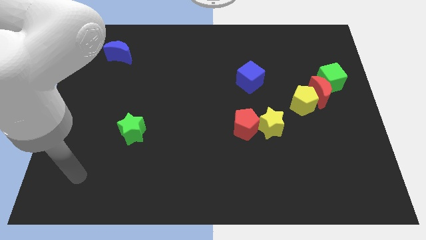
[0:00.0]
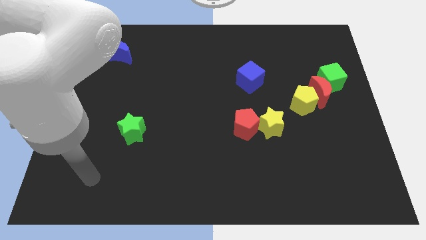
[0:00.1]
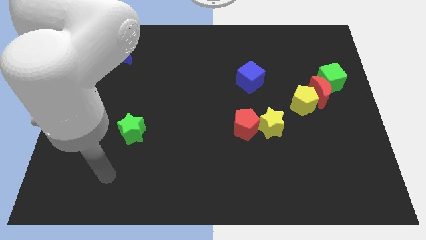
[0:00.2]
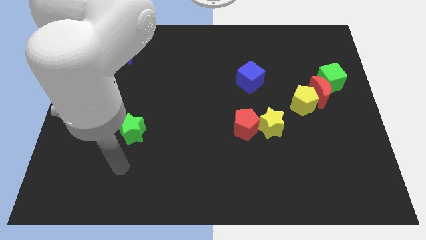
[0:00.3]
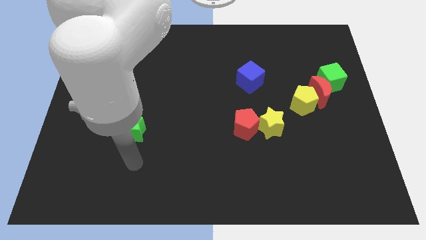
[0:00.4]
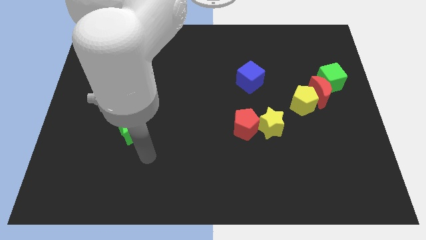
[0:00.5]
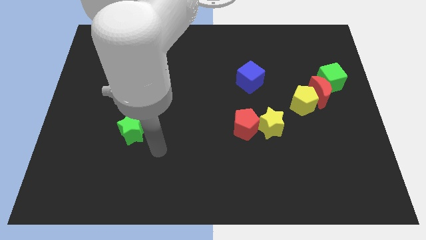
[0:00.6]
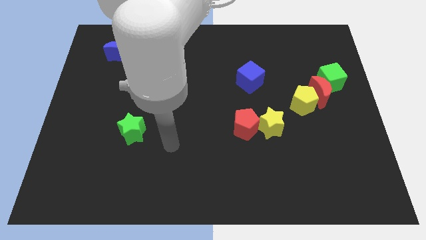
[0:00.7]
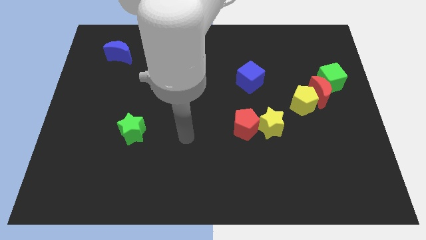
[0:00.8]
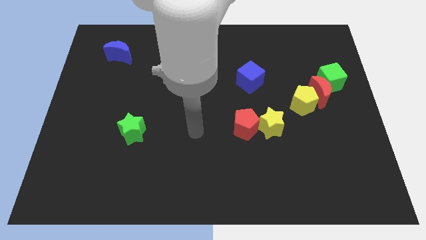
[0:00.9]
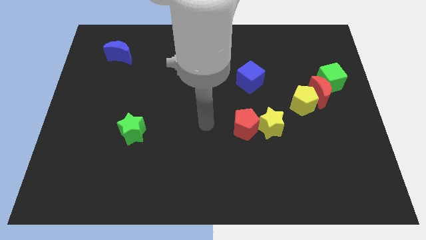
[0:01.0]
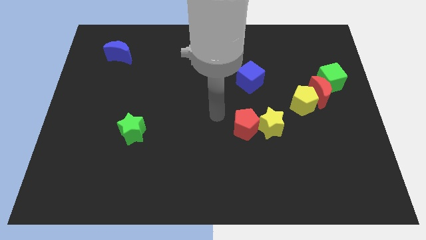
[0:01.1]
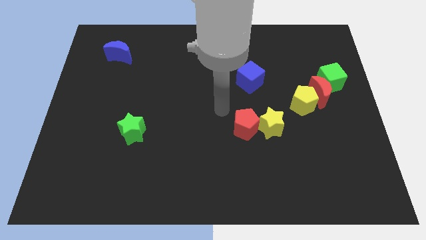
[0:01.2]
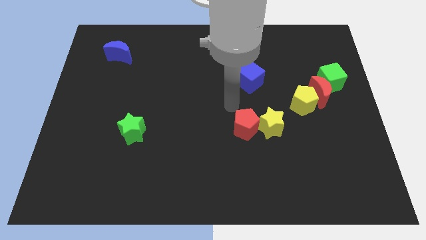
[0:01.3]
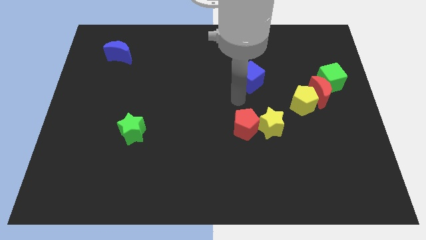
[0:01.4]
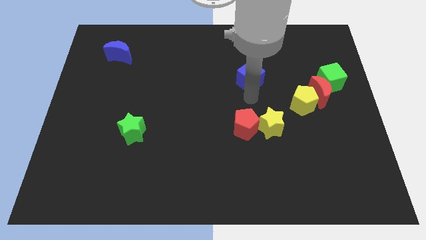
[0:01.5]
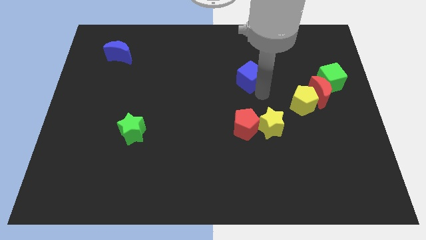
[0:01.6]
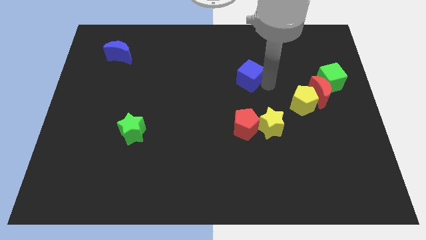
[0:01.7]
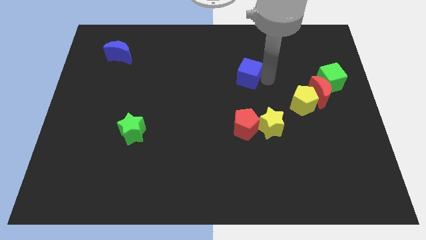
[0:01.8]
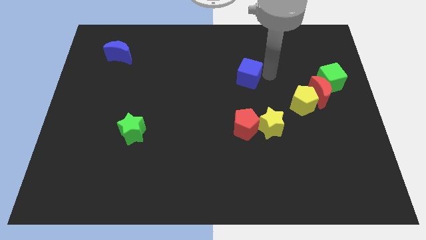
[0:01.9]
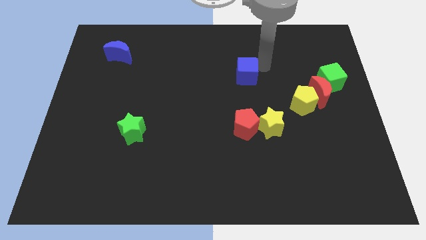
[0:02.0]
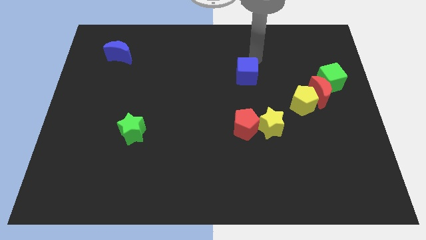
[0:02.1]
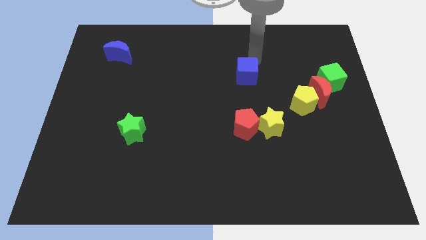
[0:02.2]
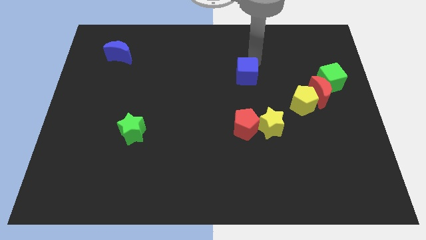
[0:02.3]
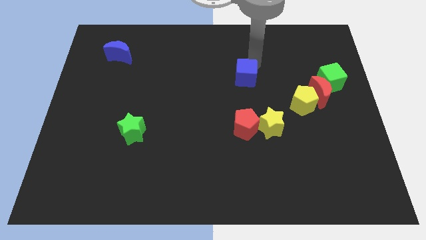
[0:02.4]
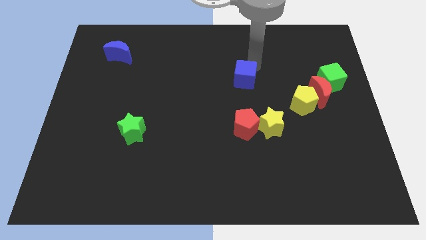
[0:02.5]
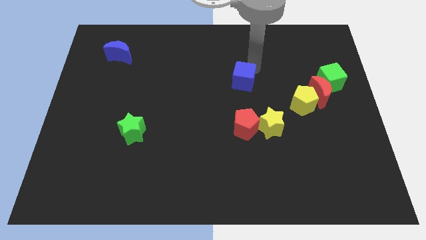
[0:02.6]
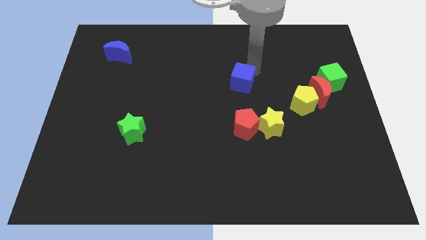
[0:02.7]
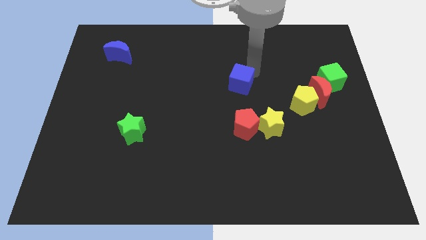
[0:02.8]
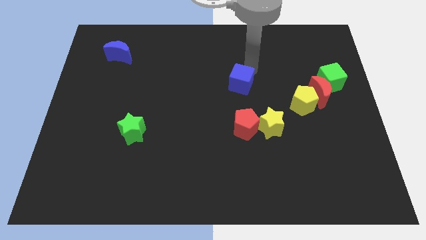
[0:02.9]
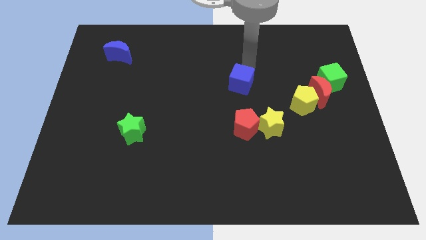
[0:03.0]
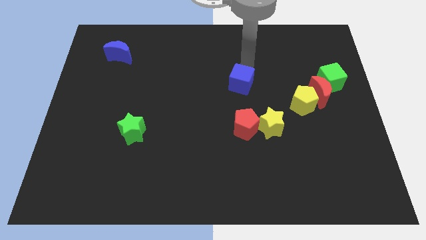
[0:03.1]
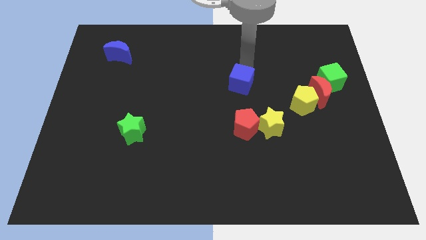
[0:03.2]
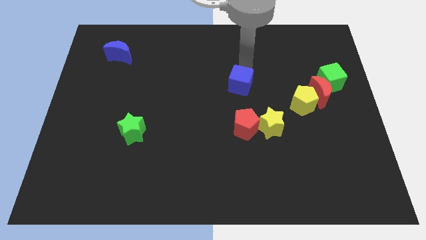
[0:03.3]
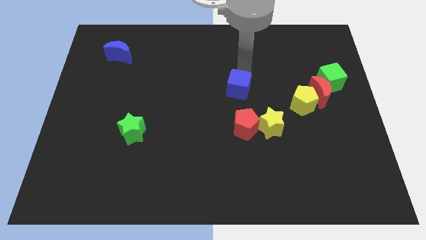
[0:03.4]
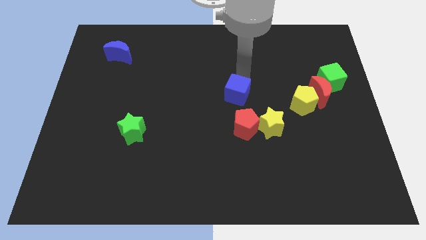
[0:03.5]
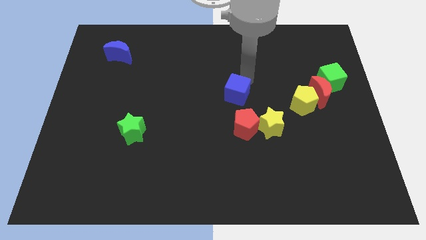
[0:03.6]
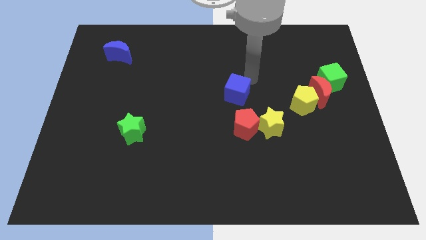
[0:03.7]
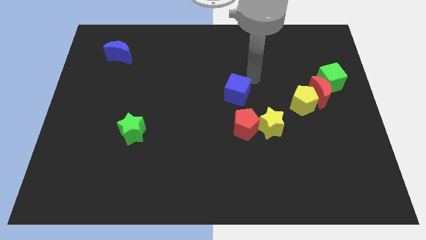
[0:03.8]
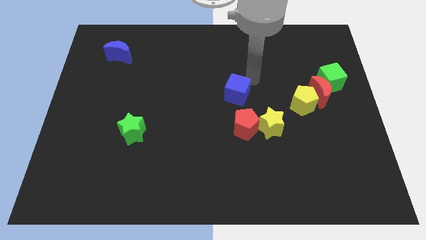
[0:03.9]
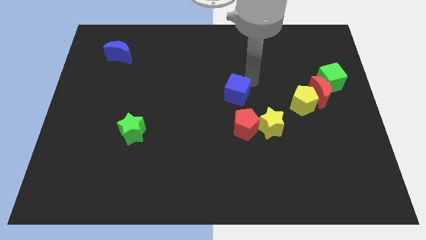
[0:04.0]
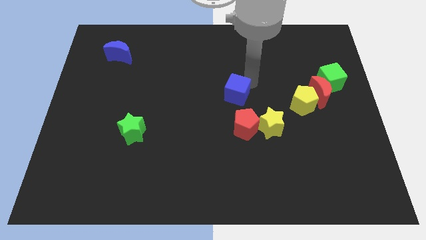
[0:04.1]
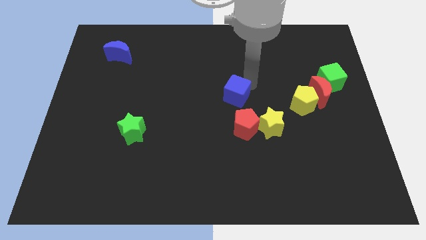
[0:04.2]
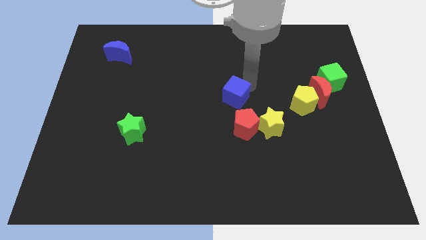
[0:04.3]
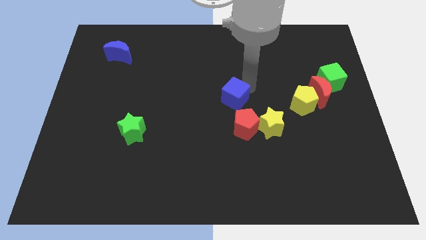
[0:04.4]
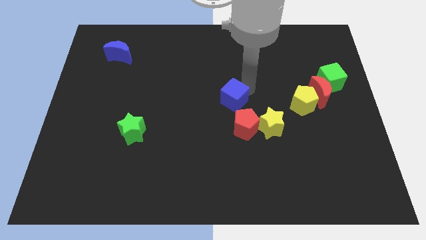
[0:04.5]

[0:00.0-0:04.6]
push the blue cube a little downwards and left

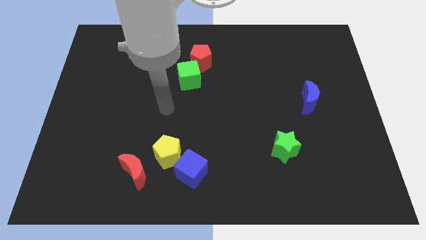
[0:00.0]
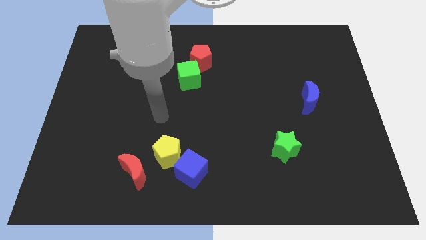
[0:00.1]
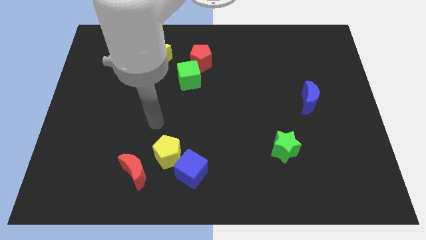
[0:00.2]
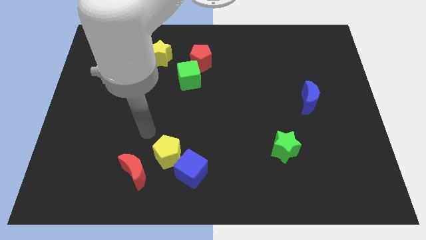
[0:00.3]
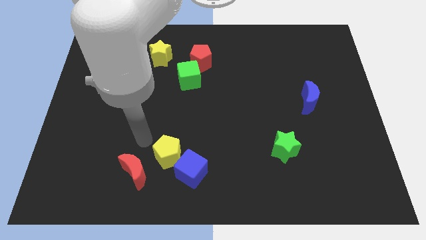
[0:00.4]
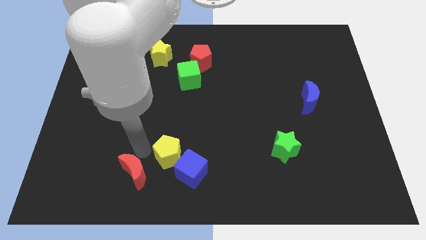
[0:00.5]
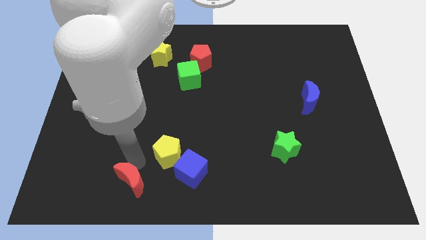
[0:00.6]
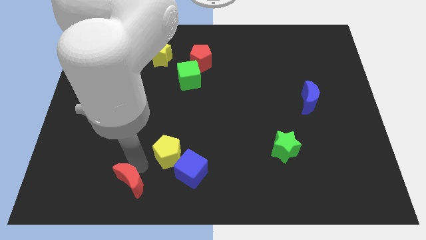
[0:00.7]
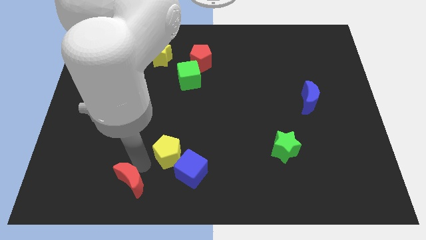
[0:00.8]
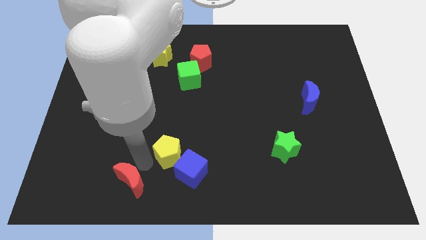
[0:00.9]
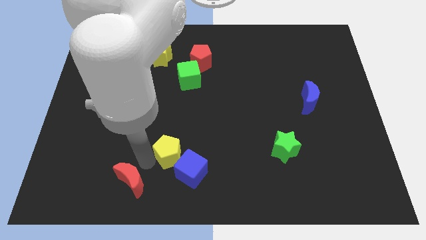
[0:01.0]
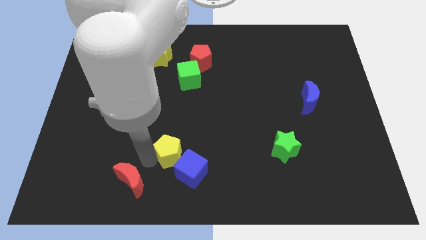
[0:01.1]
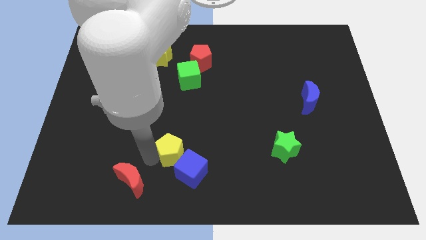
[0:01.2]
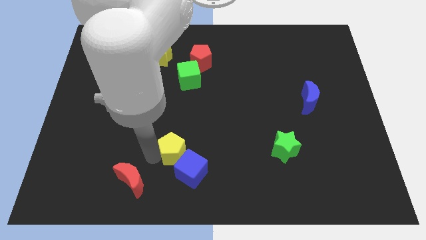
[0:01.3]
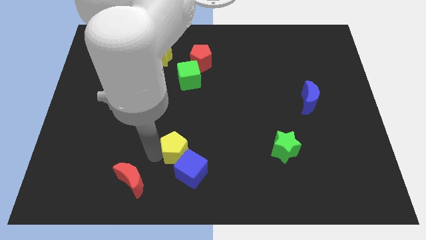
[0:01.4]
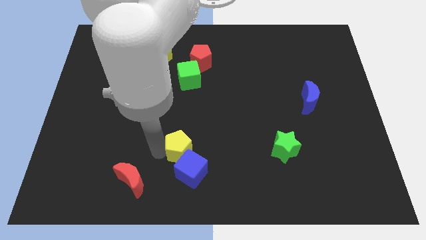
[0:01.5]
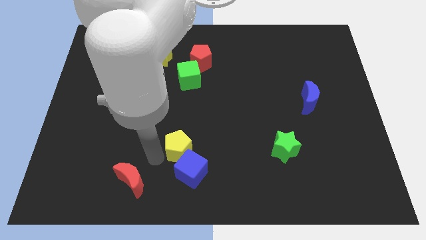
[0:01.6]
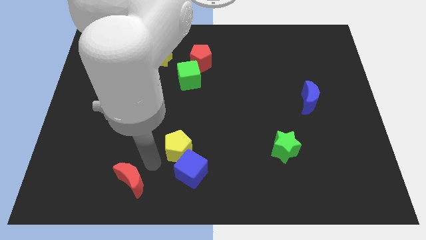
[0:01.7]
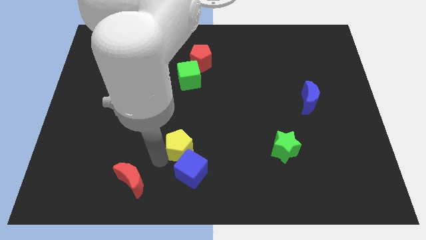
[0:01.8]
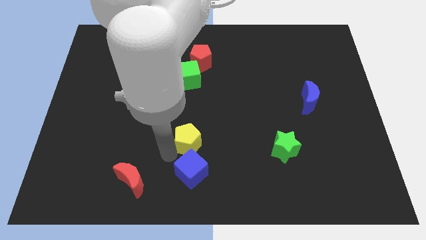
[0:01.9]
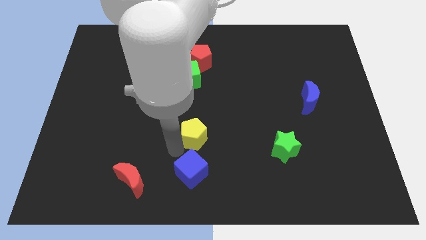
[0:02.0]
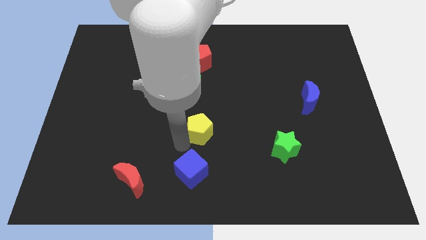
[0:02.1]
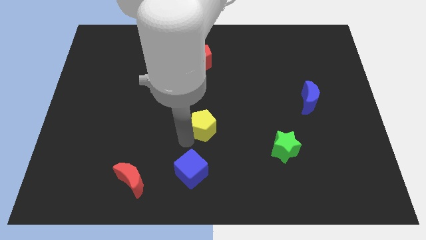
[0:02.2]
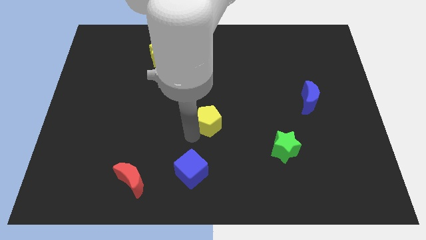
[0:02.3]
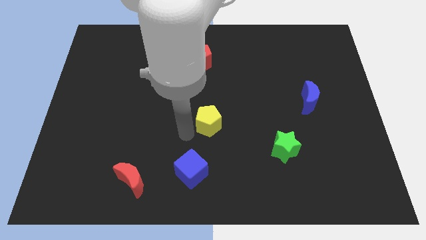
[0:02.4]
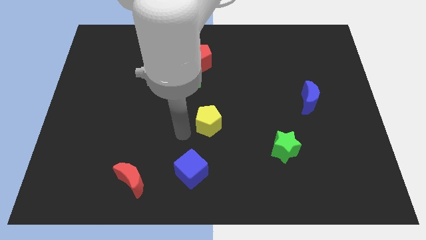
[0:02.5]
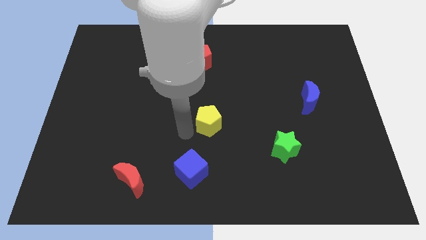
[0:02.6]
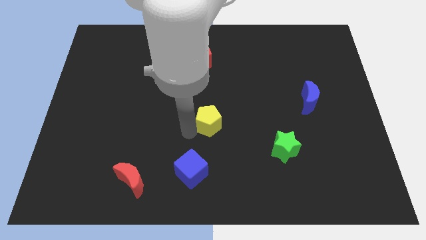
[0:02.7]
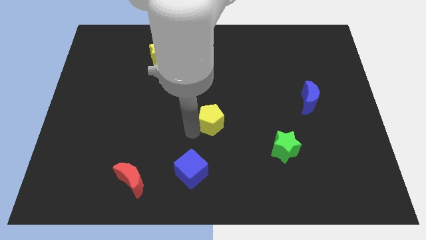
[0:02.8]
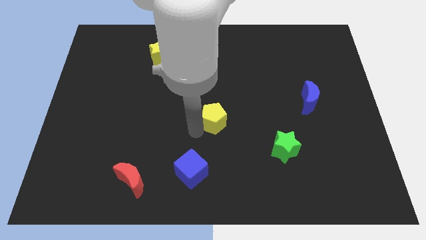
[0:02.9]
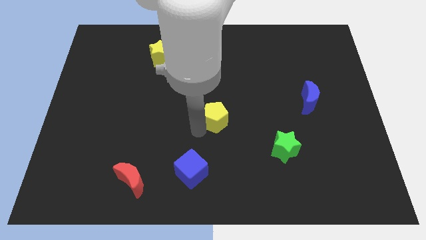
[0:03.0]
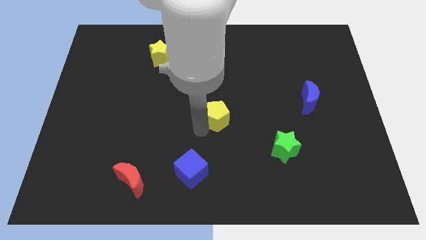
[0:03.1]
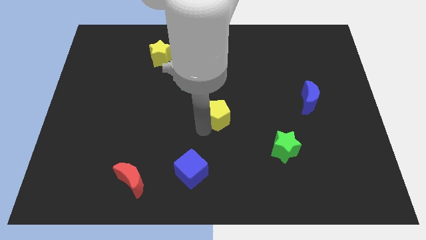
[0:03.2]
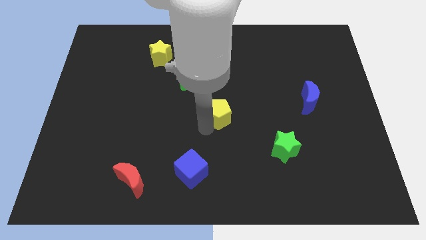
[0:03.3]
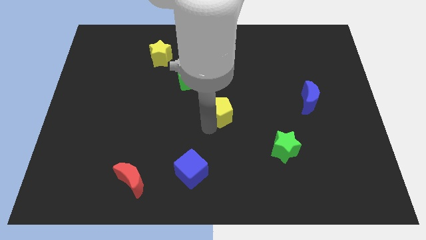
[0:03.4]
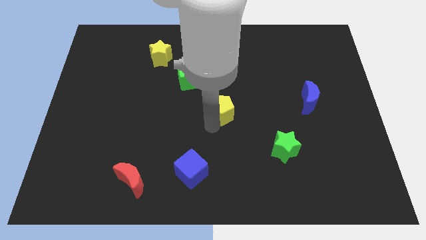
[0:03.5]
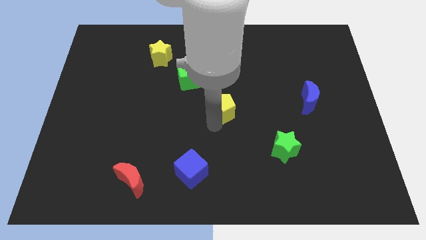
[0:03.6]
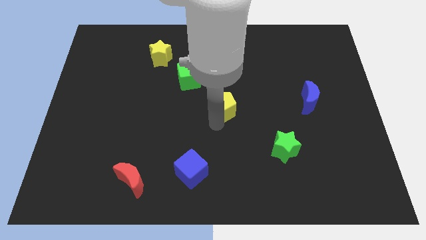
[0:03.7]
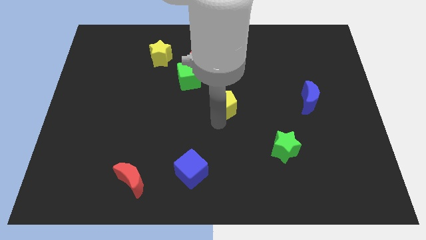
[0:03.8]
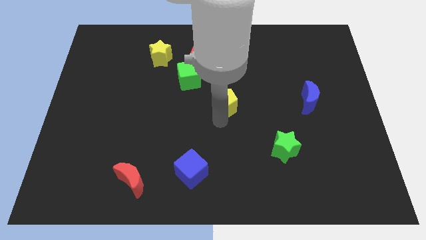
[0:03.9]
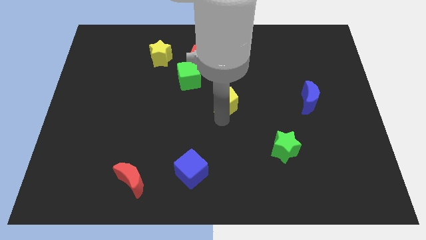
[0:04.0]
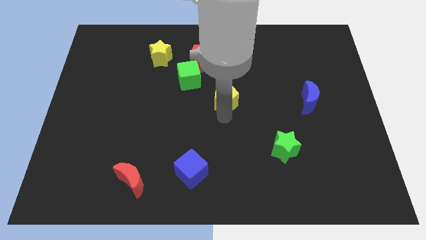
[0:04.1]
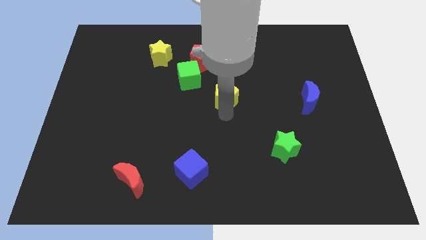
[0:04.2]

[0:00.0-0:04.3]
slide the yellow pentagon diagonally upwards and to the right
